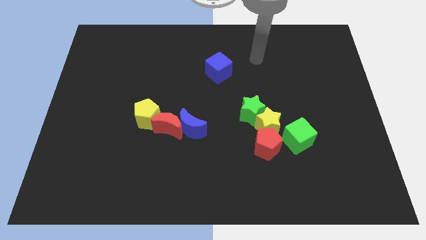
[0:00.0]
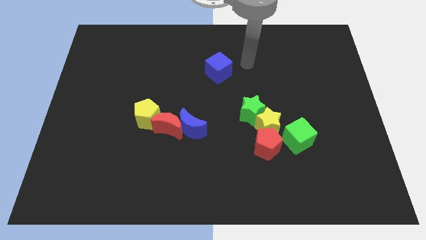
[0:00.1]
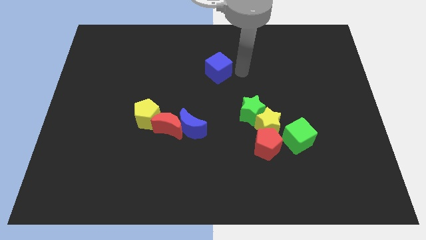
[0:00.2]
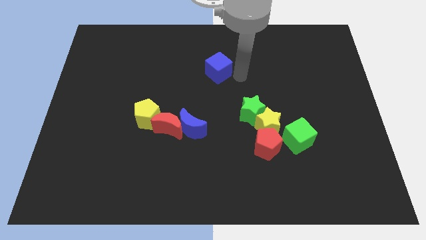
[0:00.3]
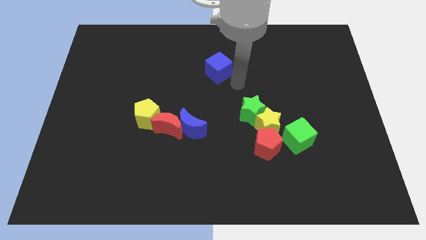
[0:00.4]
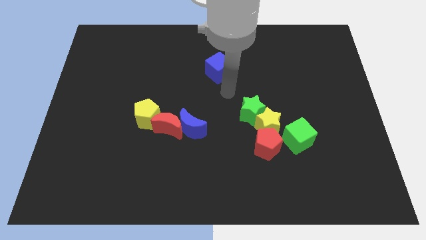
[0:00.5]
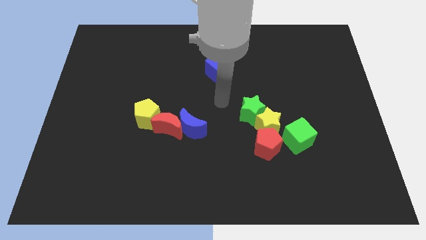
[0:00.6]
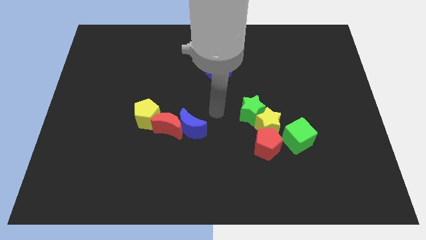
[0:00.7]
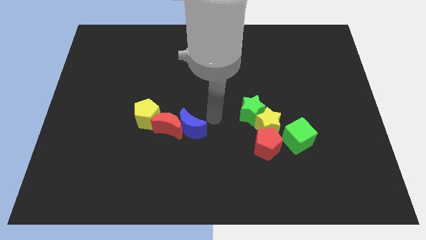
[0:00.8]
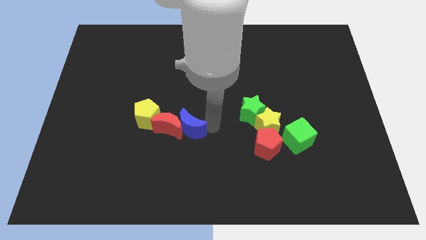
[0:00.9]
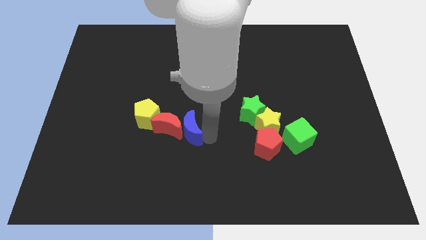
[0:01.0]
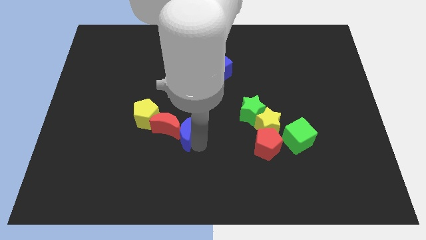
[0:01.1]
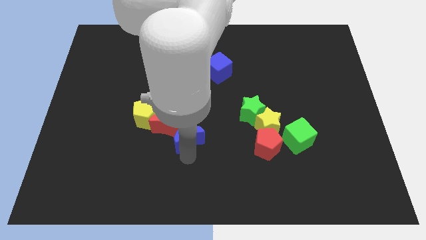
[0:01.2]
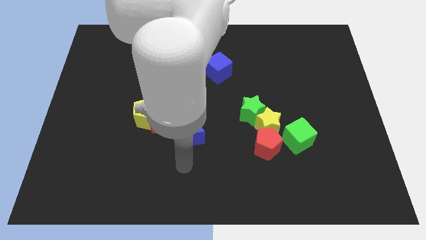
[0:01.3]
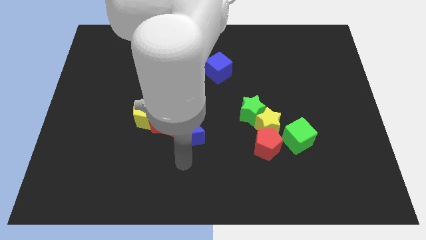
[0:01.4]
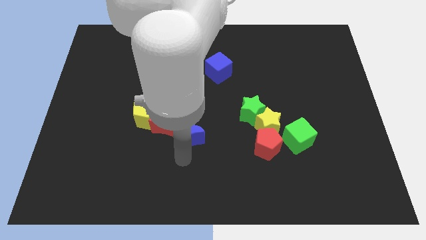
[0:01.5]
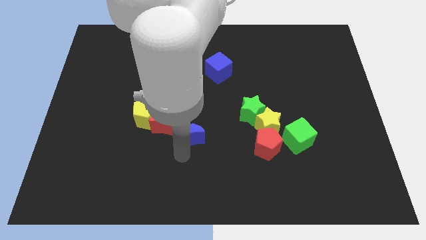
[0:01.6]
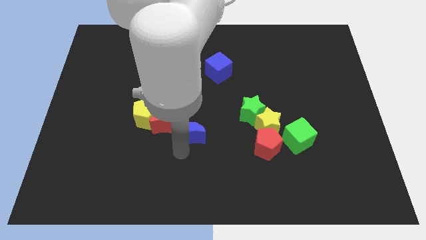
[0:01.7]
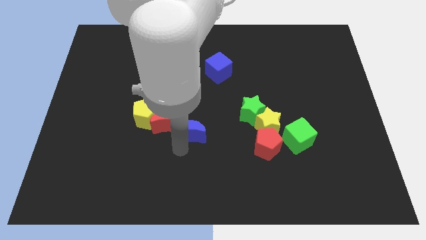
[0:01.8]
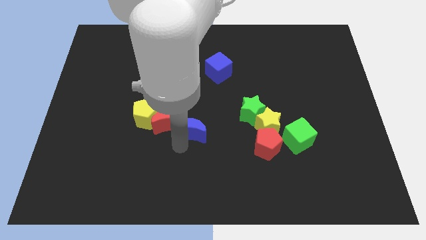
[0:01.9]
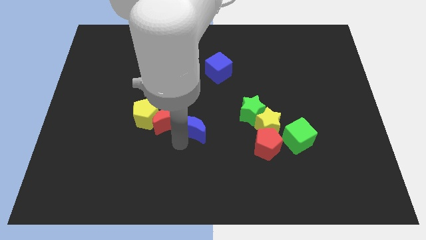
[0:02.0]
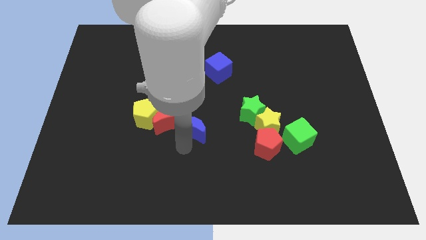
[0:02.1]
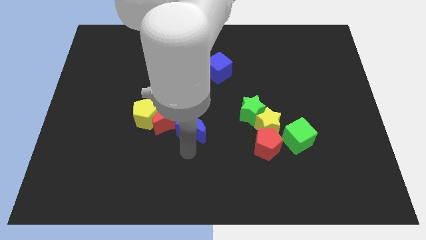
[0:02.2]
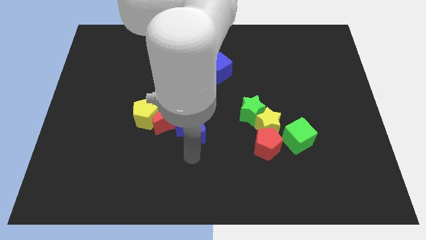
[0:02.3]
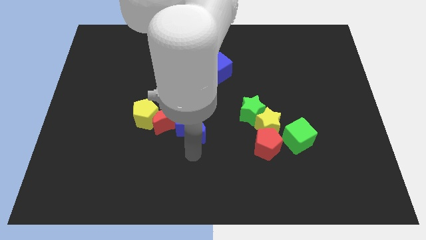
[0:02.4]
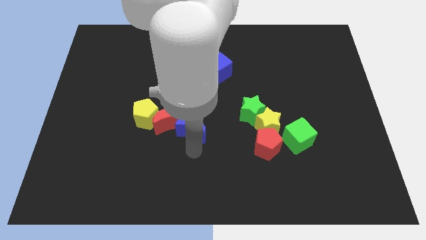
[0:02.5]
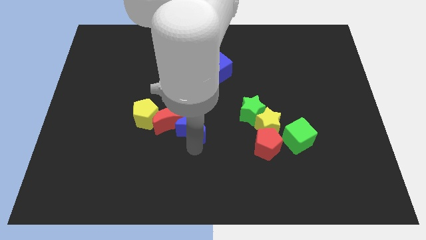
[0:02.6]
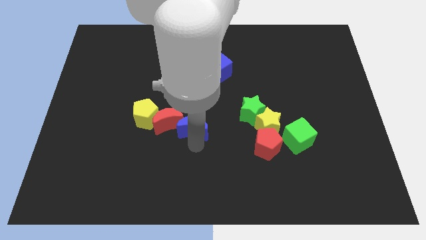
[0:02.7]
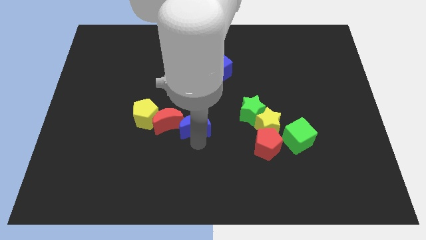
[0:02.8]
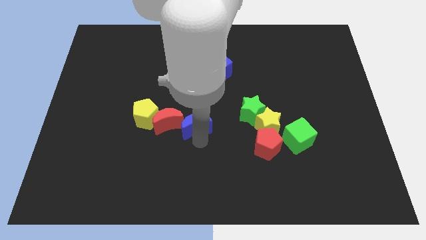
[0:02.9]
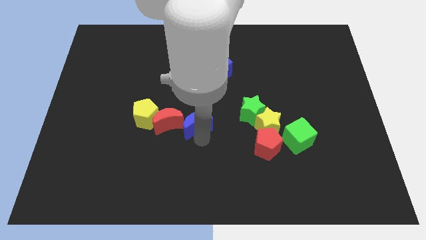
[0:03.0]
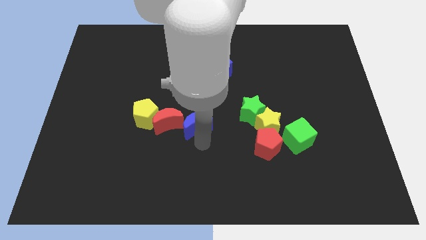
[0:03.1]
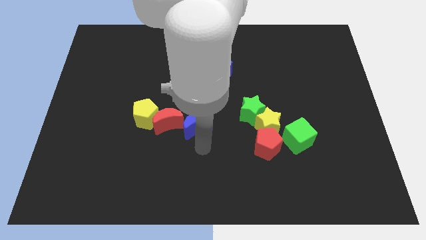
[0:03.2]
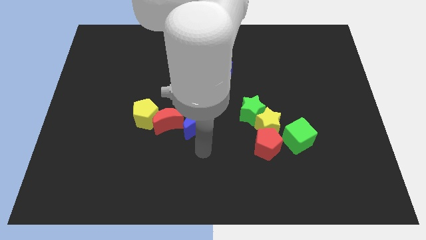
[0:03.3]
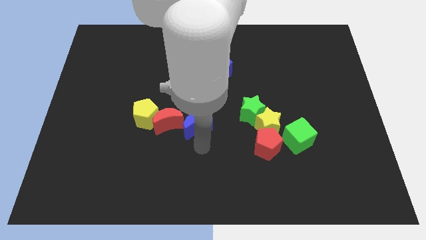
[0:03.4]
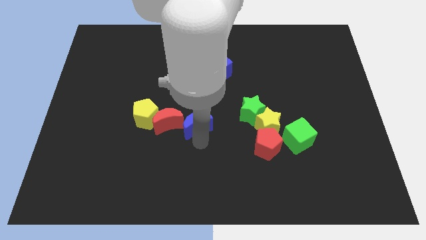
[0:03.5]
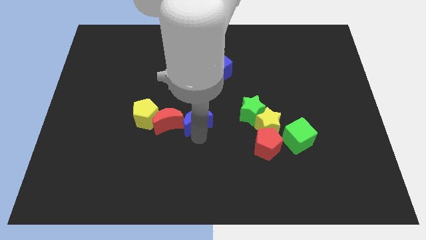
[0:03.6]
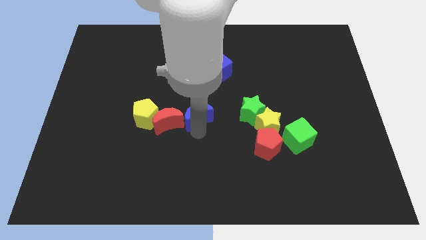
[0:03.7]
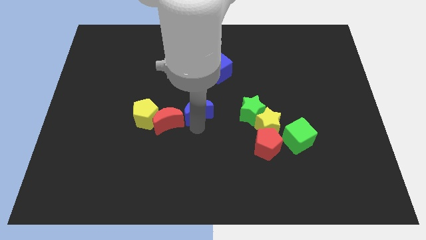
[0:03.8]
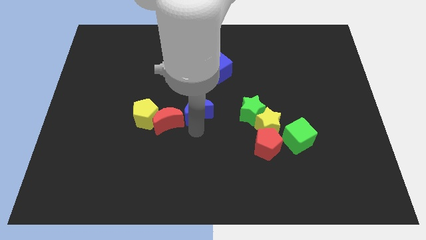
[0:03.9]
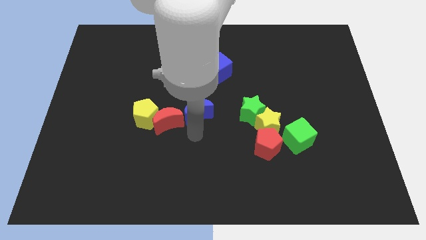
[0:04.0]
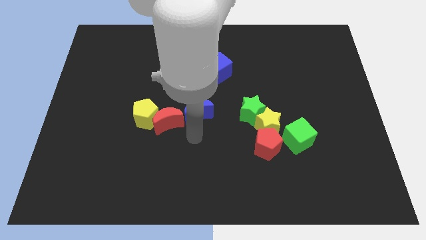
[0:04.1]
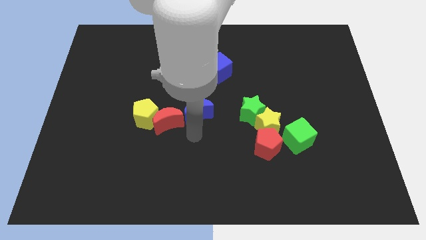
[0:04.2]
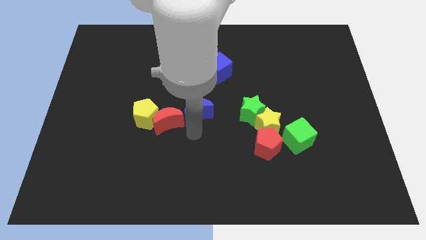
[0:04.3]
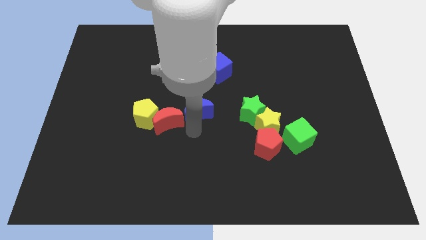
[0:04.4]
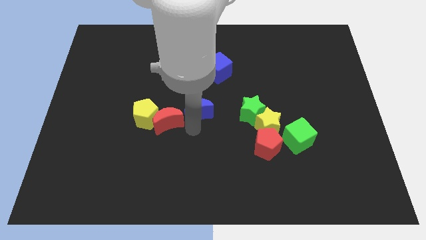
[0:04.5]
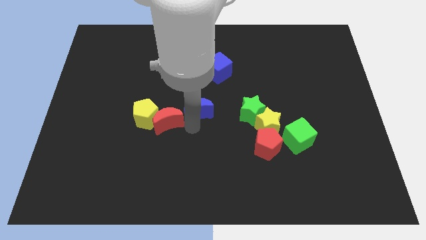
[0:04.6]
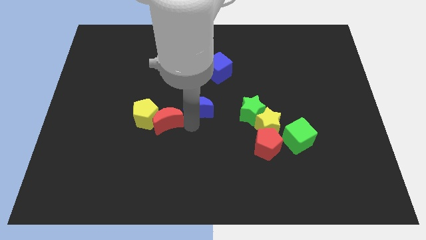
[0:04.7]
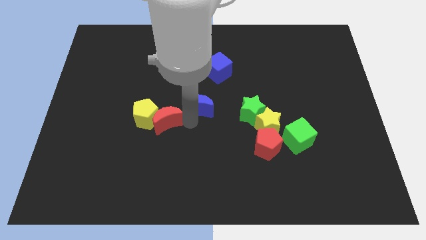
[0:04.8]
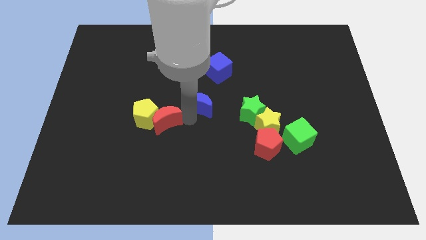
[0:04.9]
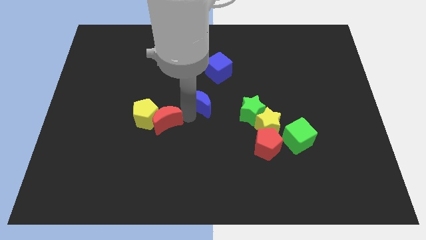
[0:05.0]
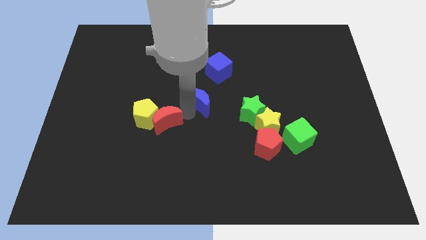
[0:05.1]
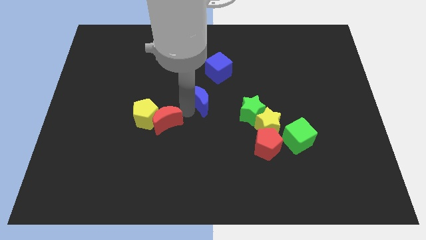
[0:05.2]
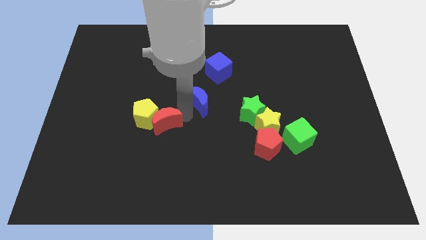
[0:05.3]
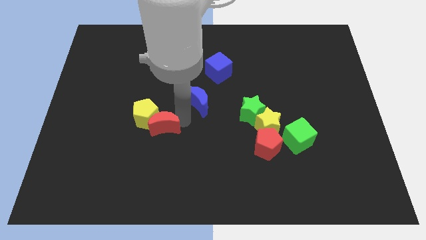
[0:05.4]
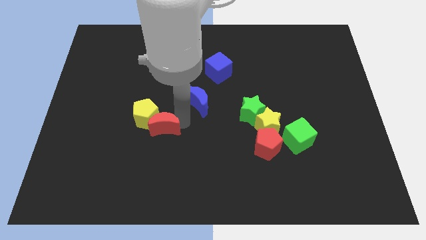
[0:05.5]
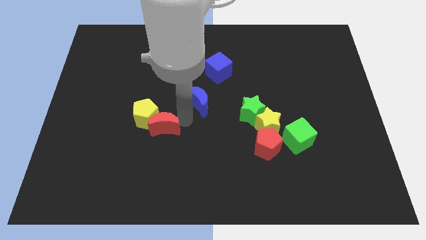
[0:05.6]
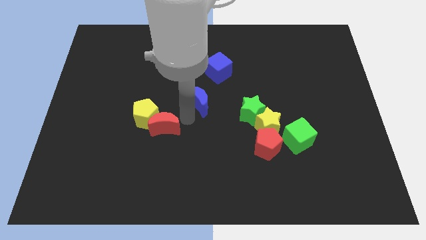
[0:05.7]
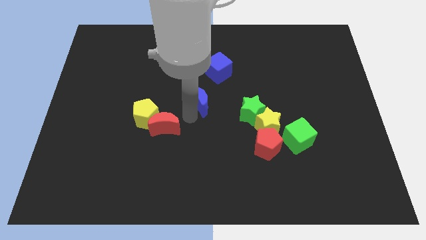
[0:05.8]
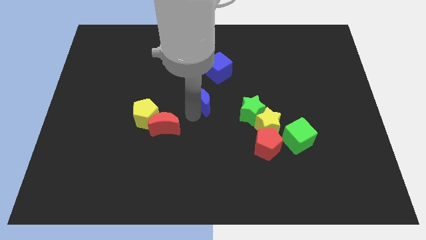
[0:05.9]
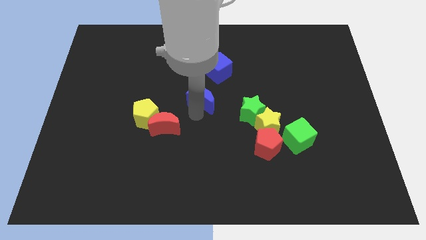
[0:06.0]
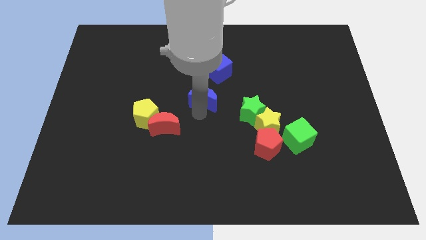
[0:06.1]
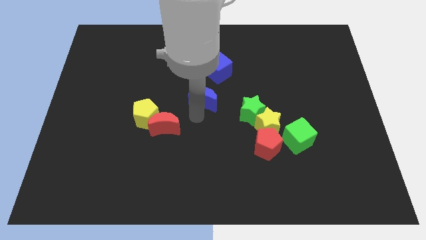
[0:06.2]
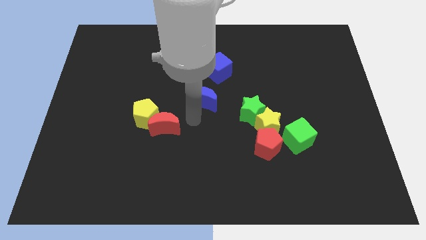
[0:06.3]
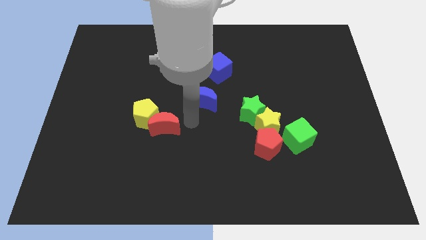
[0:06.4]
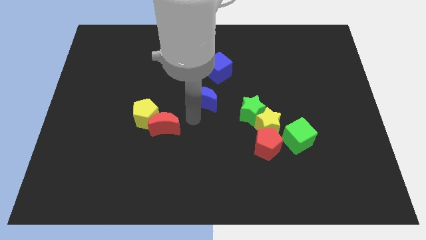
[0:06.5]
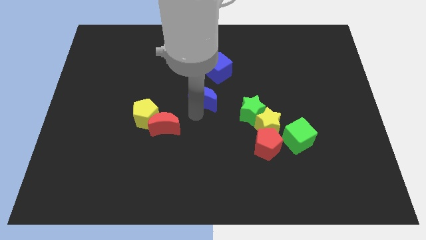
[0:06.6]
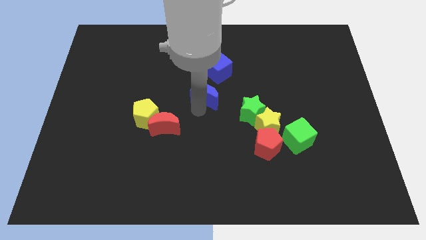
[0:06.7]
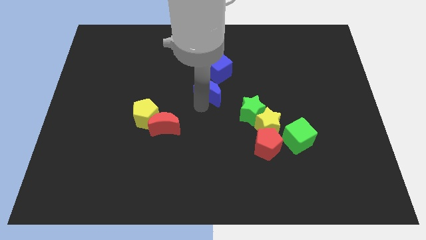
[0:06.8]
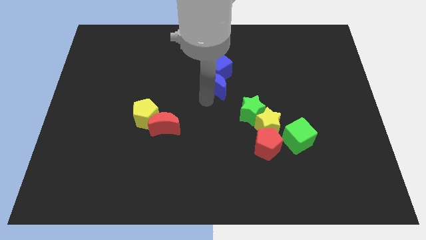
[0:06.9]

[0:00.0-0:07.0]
move the blue moon close to the blue cube
